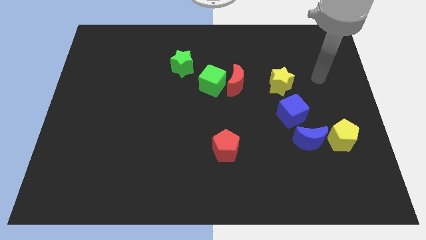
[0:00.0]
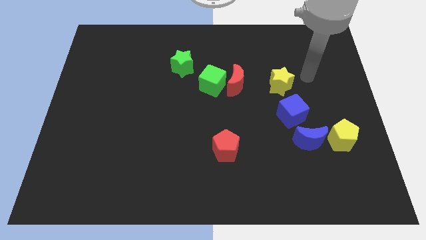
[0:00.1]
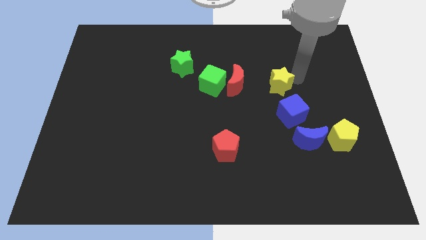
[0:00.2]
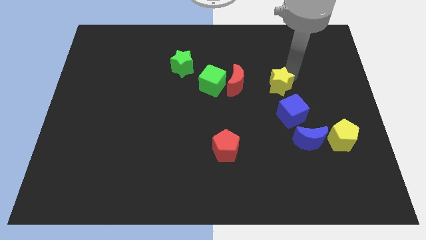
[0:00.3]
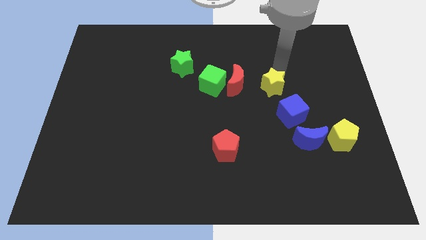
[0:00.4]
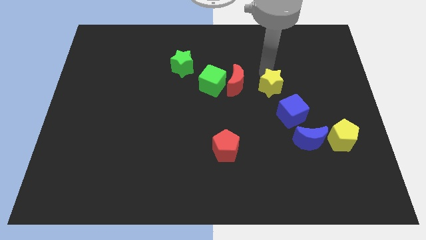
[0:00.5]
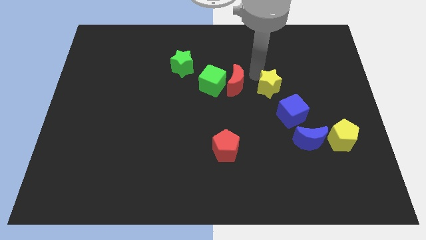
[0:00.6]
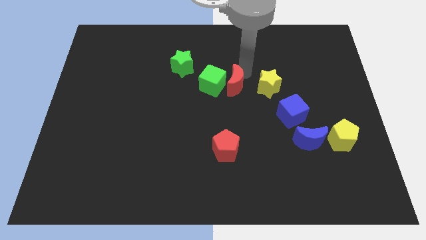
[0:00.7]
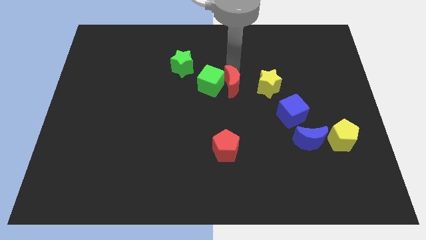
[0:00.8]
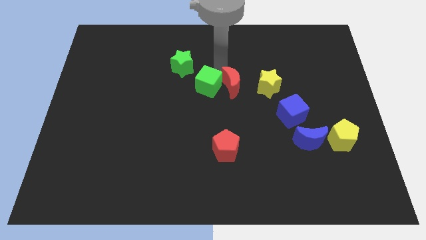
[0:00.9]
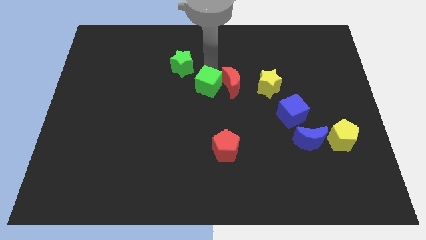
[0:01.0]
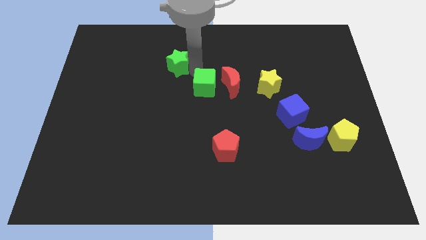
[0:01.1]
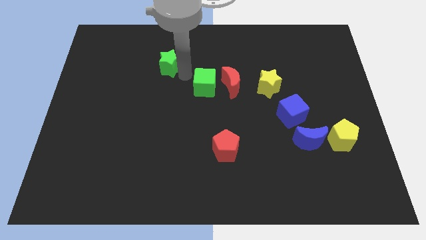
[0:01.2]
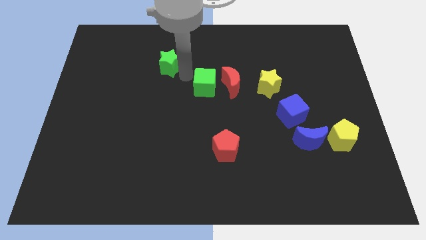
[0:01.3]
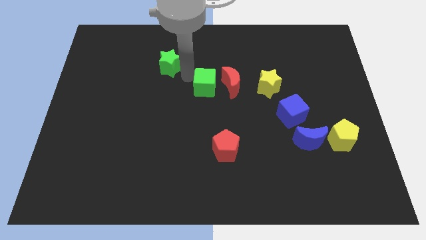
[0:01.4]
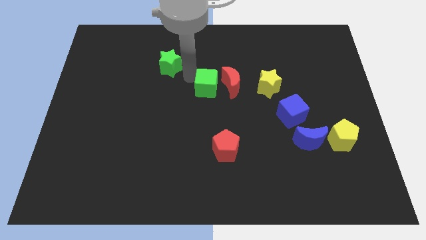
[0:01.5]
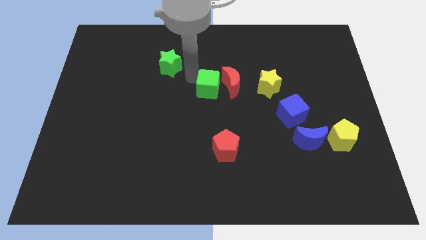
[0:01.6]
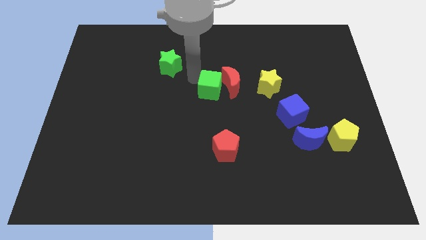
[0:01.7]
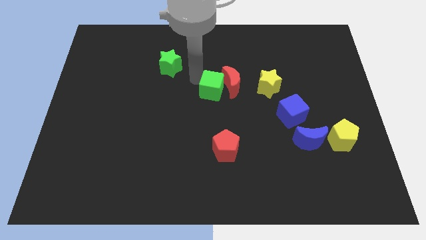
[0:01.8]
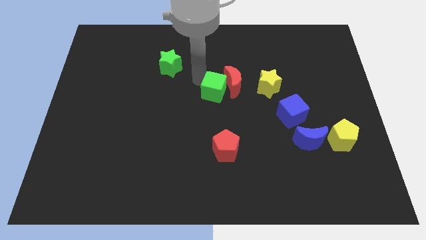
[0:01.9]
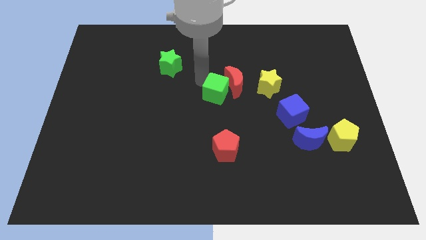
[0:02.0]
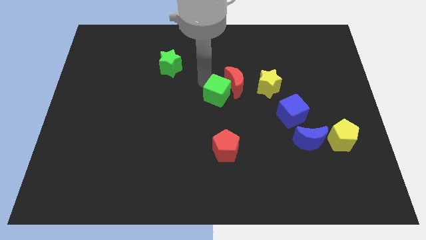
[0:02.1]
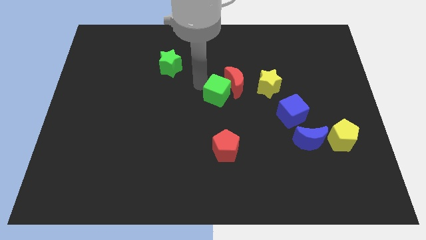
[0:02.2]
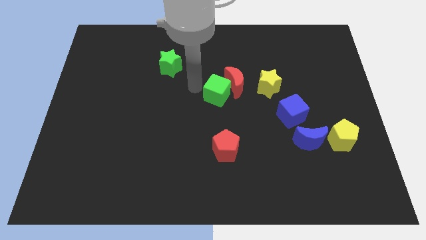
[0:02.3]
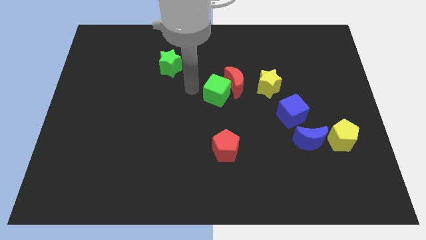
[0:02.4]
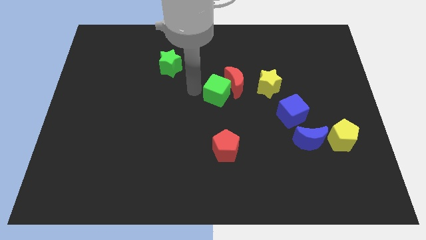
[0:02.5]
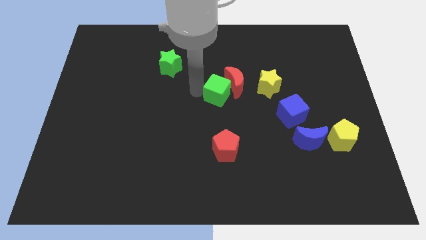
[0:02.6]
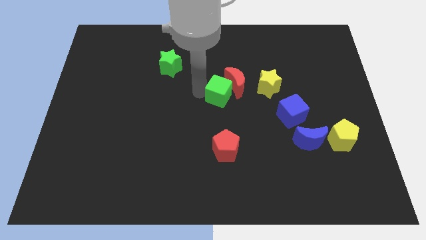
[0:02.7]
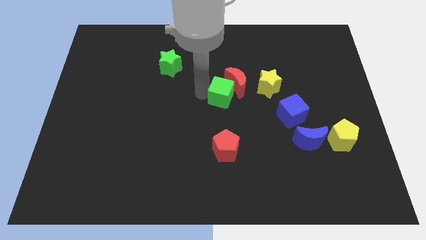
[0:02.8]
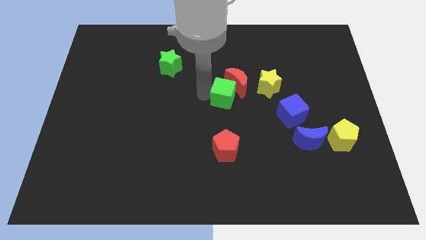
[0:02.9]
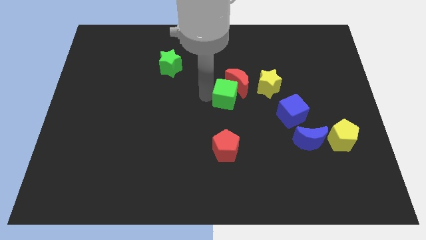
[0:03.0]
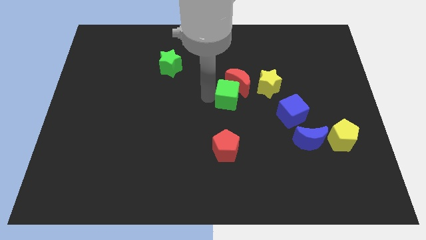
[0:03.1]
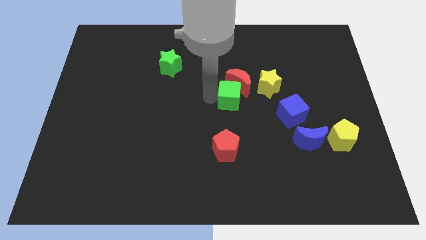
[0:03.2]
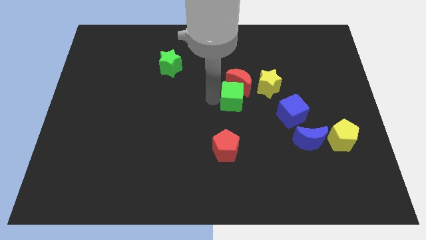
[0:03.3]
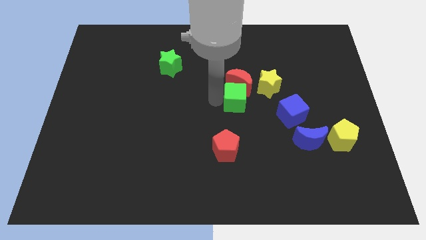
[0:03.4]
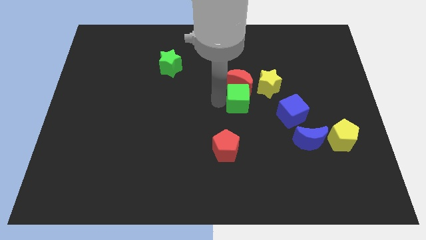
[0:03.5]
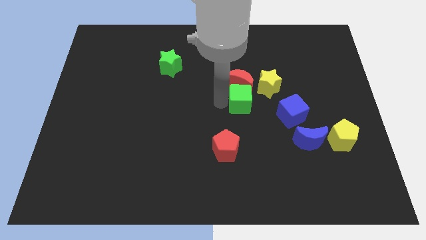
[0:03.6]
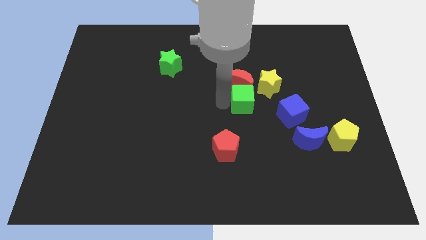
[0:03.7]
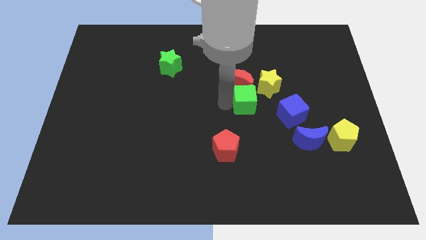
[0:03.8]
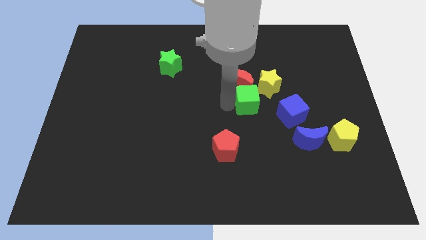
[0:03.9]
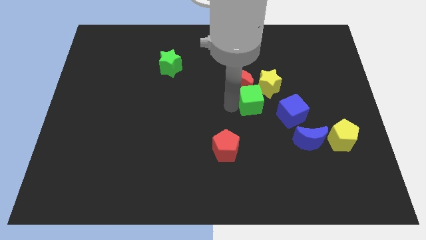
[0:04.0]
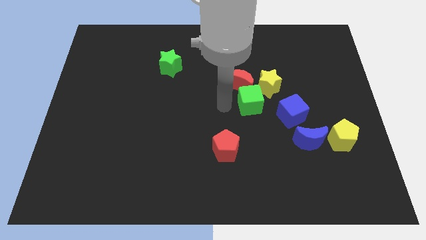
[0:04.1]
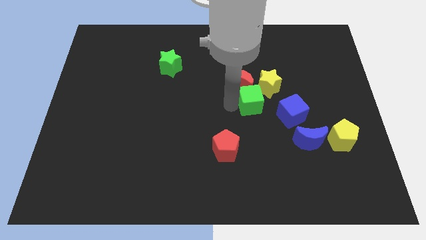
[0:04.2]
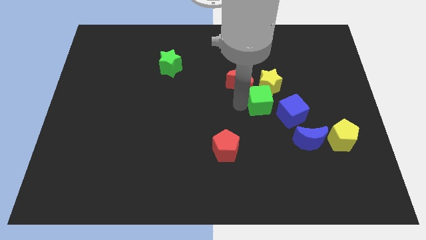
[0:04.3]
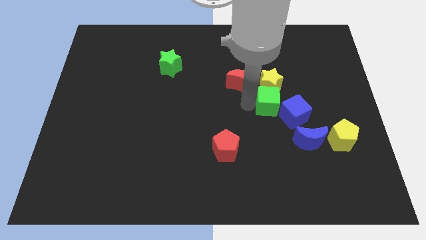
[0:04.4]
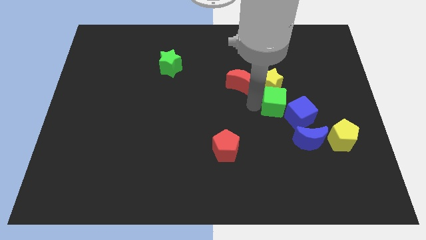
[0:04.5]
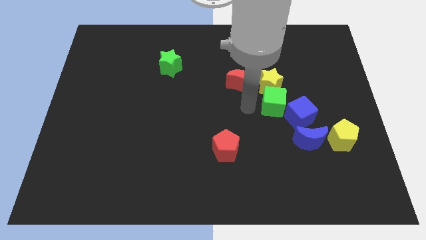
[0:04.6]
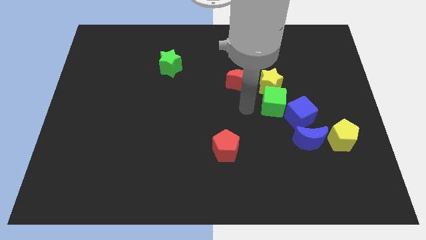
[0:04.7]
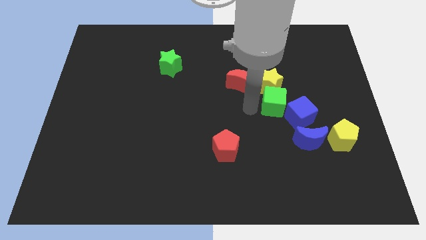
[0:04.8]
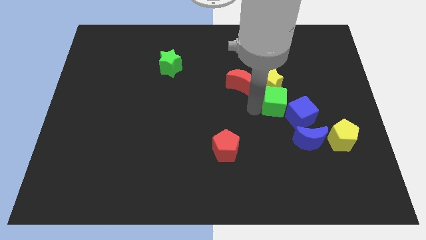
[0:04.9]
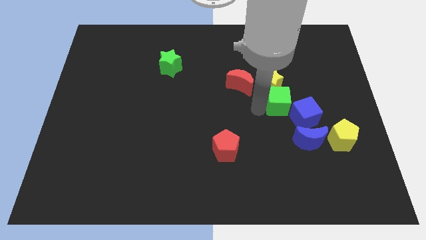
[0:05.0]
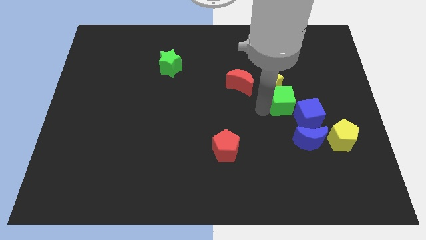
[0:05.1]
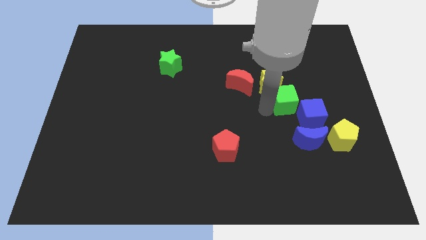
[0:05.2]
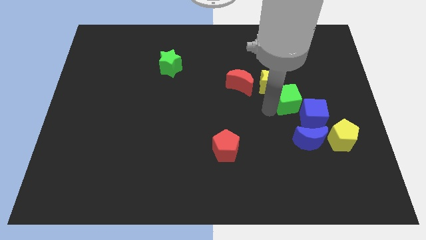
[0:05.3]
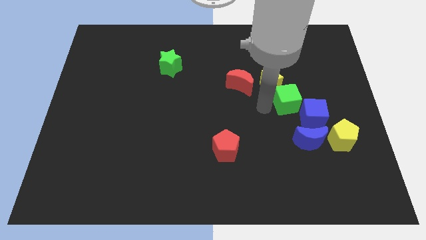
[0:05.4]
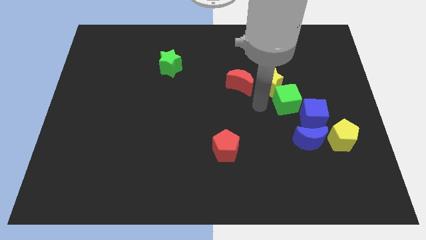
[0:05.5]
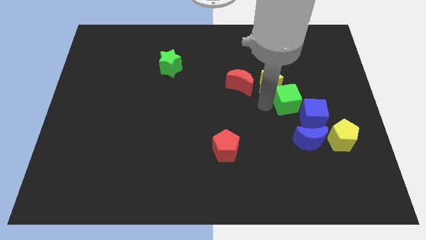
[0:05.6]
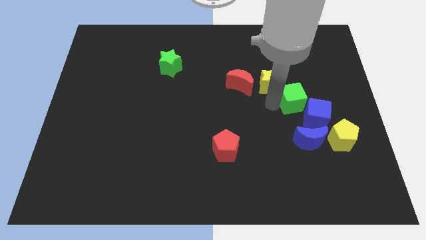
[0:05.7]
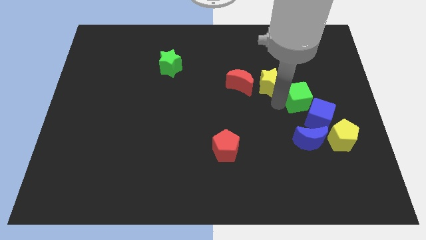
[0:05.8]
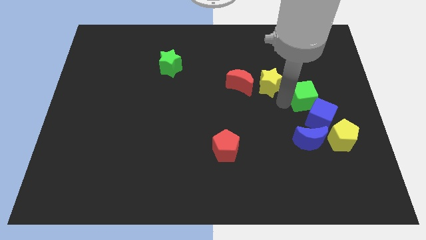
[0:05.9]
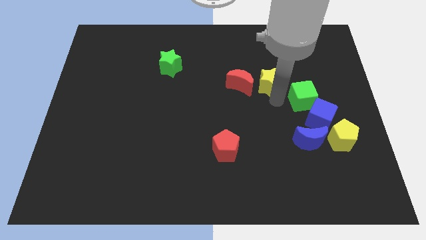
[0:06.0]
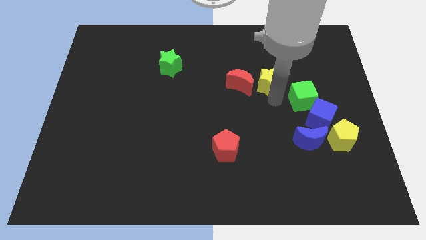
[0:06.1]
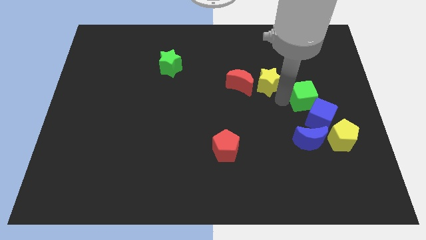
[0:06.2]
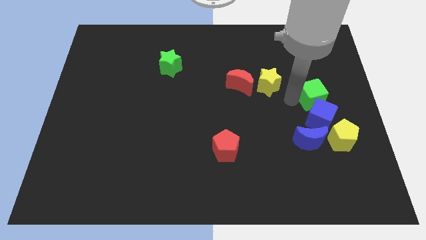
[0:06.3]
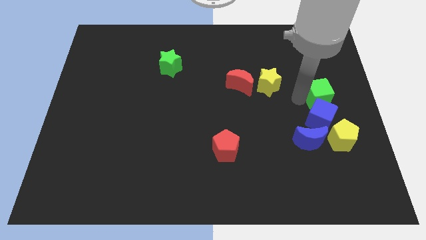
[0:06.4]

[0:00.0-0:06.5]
slide the green cube to the right side
